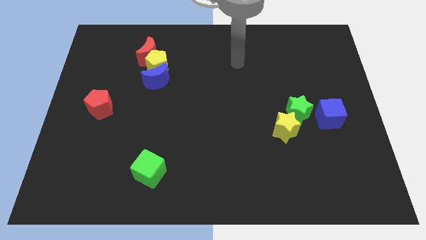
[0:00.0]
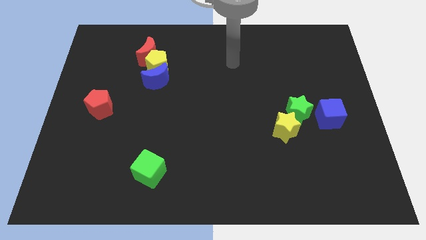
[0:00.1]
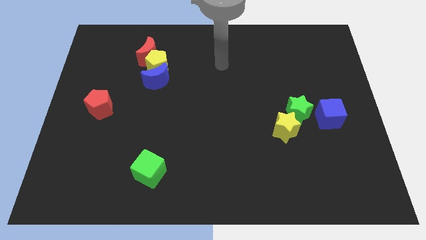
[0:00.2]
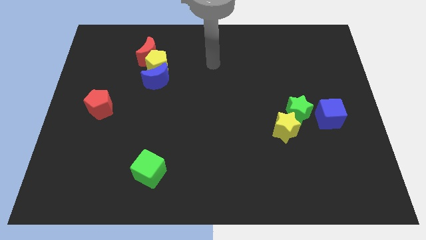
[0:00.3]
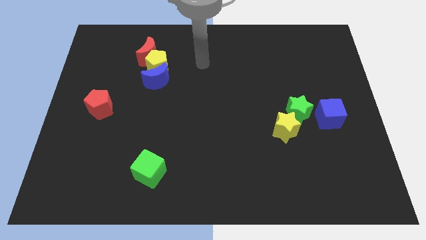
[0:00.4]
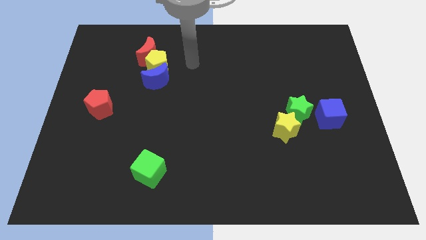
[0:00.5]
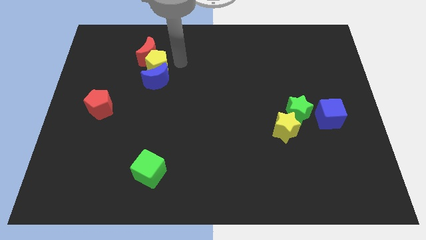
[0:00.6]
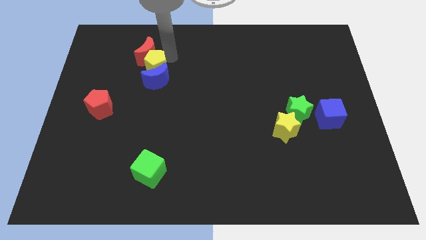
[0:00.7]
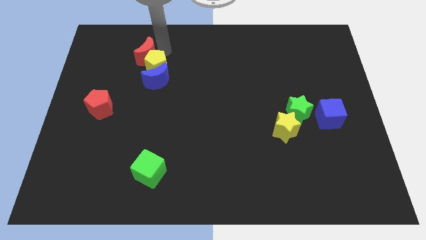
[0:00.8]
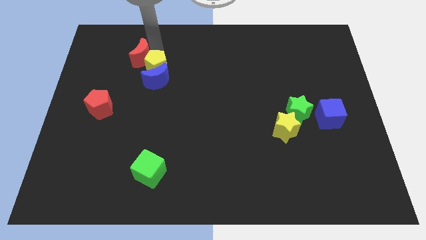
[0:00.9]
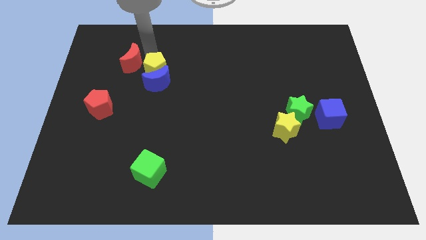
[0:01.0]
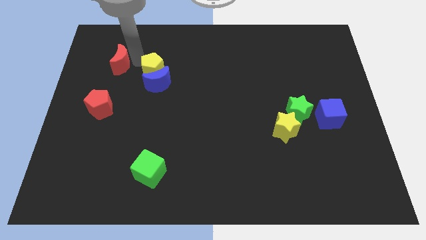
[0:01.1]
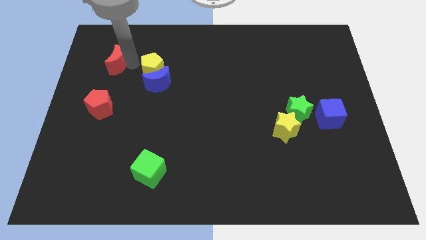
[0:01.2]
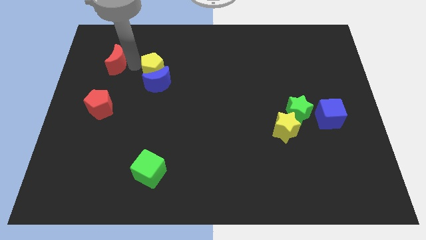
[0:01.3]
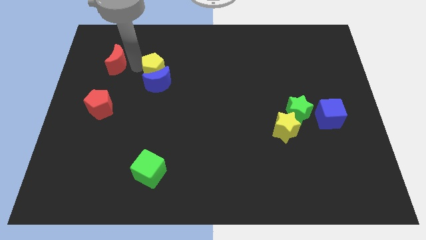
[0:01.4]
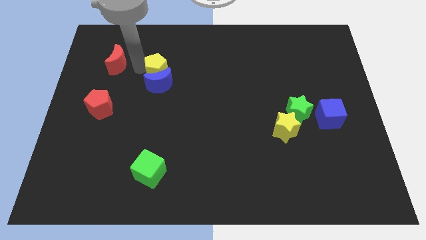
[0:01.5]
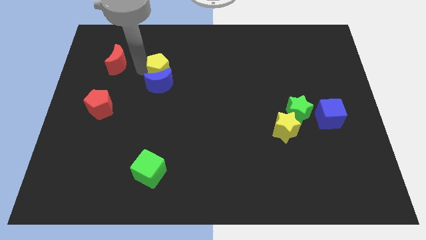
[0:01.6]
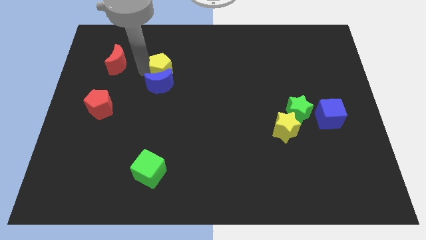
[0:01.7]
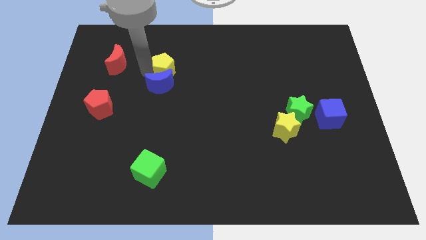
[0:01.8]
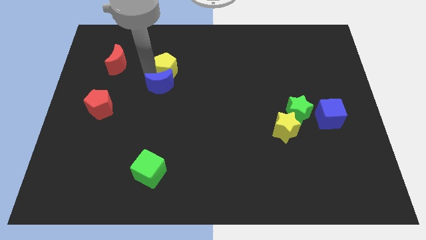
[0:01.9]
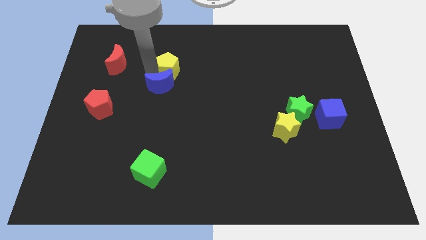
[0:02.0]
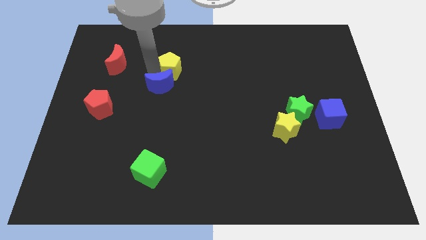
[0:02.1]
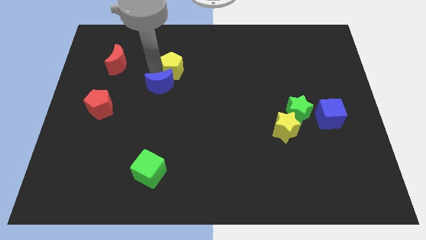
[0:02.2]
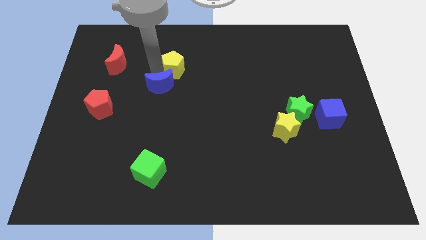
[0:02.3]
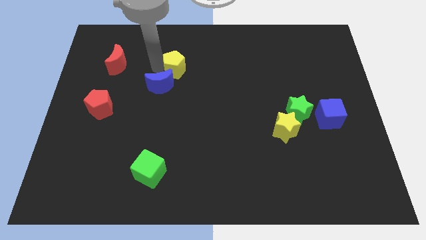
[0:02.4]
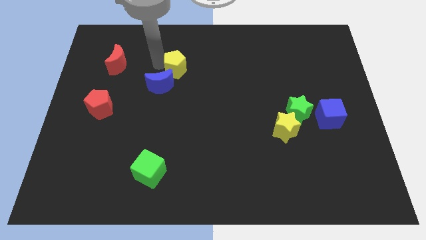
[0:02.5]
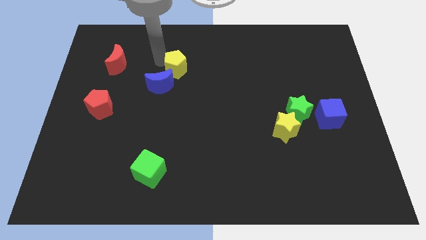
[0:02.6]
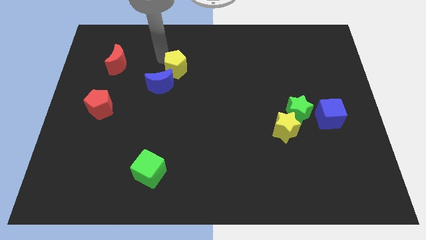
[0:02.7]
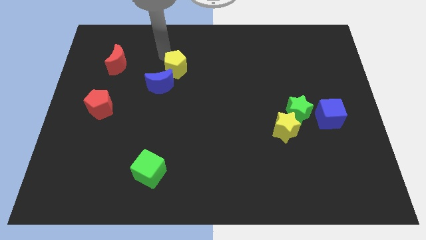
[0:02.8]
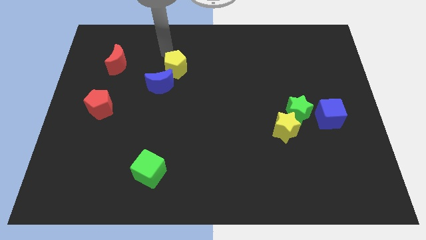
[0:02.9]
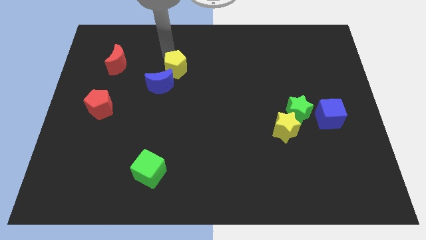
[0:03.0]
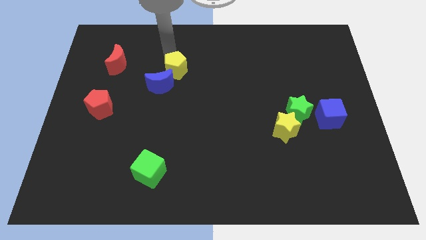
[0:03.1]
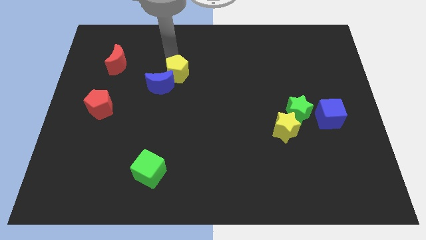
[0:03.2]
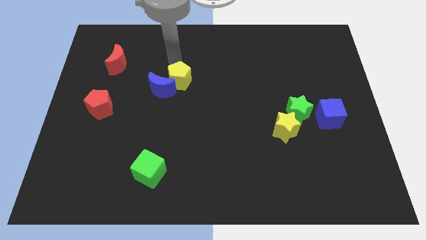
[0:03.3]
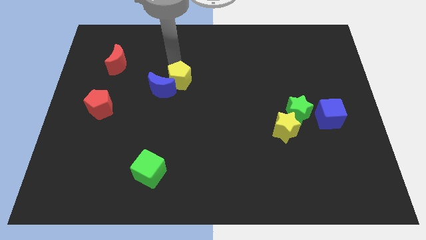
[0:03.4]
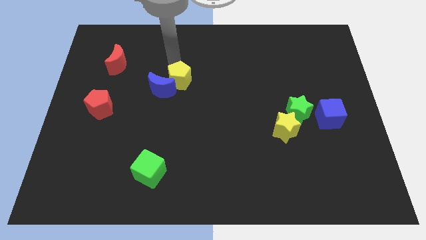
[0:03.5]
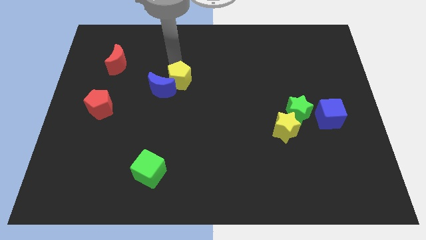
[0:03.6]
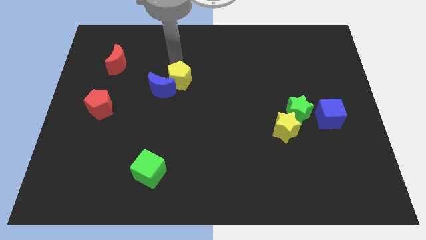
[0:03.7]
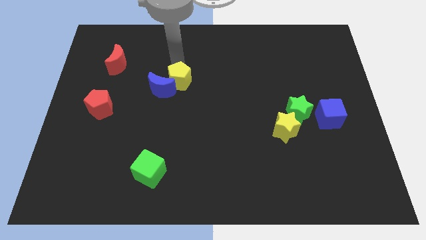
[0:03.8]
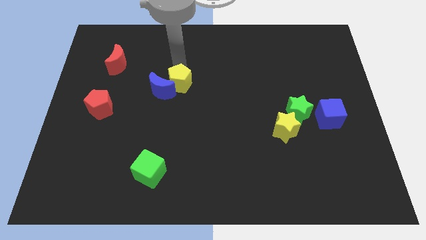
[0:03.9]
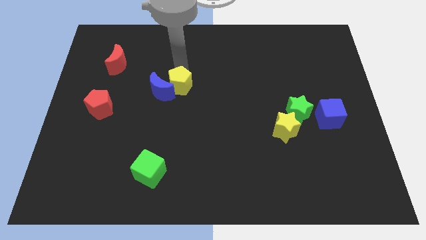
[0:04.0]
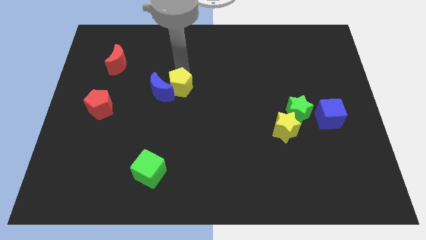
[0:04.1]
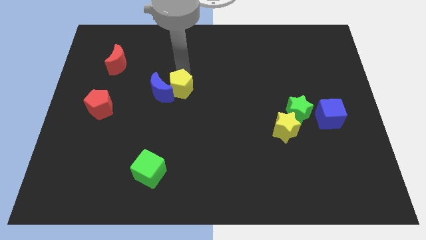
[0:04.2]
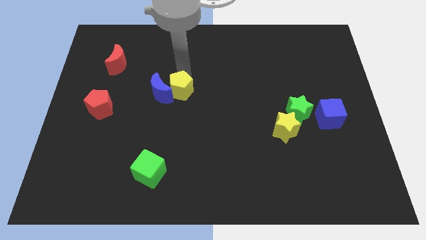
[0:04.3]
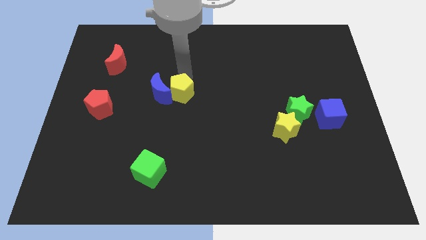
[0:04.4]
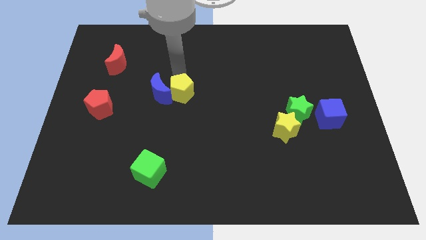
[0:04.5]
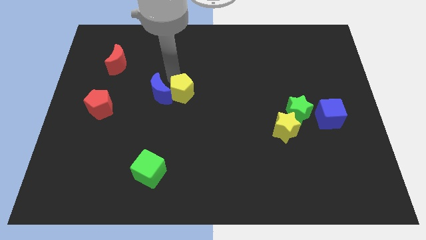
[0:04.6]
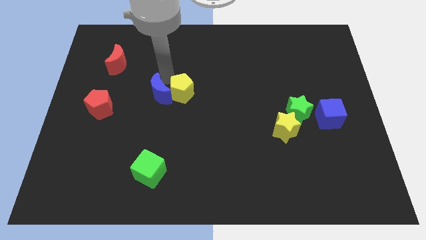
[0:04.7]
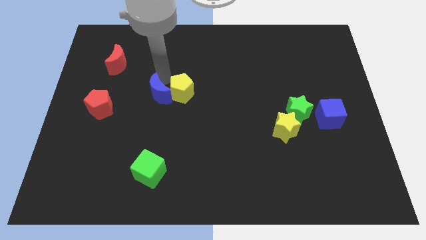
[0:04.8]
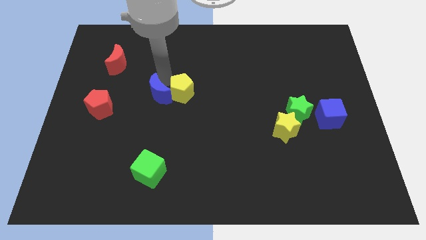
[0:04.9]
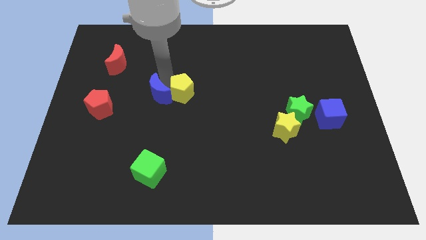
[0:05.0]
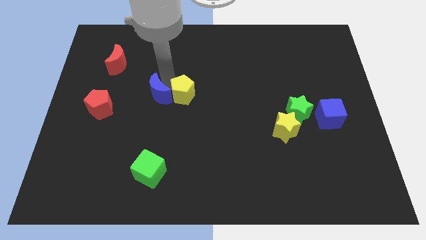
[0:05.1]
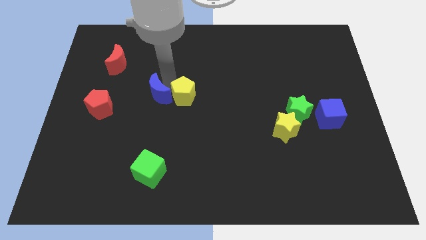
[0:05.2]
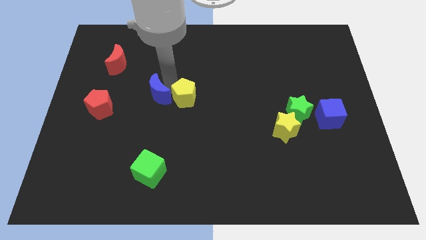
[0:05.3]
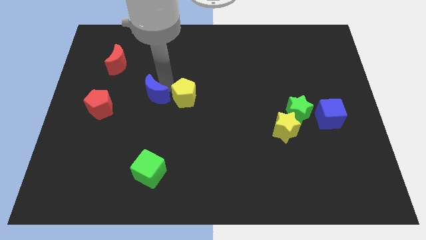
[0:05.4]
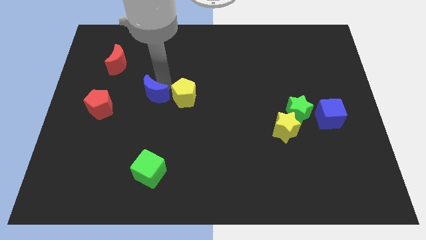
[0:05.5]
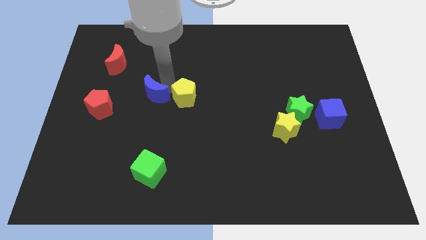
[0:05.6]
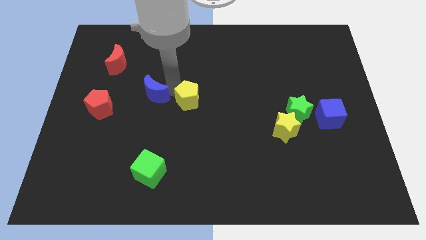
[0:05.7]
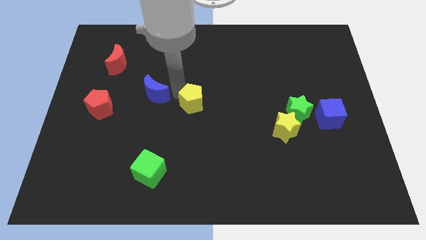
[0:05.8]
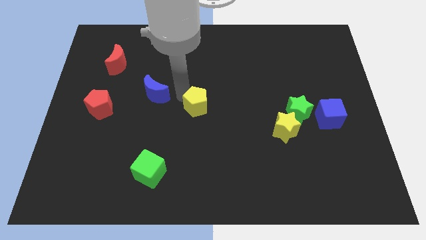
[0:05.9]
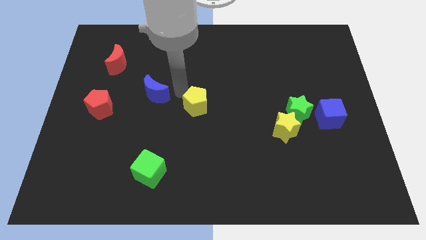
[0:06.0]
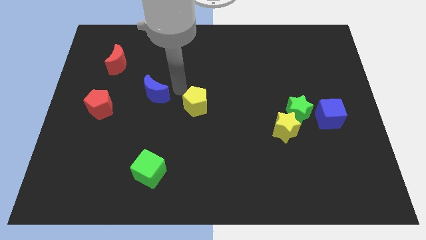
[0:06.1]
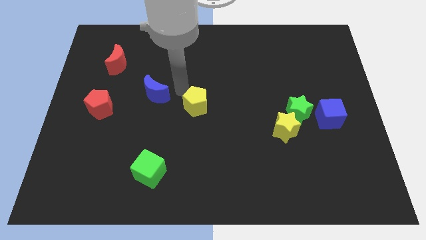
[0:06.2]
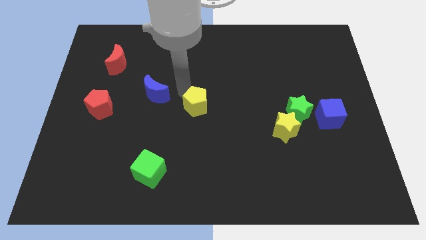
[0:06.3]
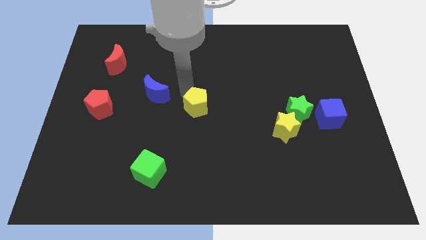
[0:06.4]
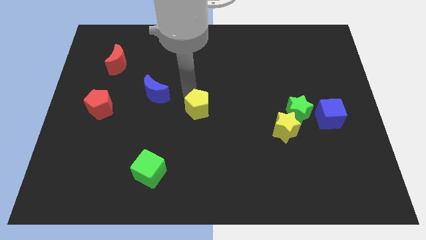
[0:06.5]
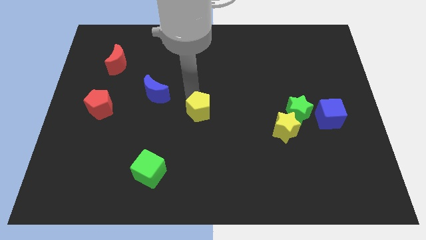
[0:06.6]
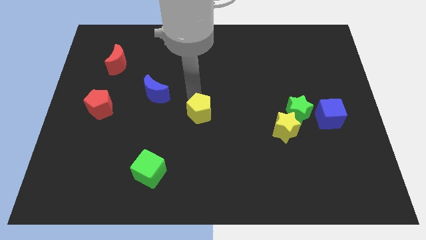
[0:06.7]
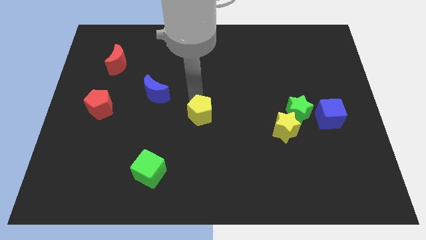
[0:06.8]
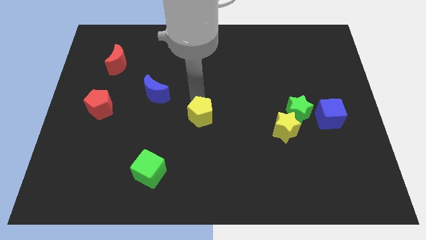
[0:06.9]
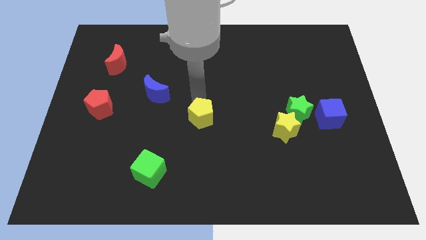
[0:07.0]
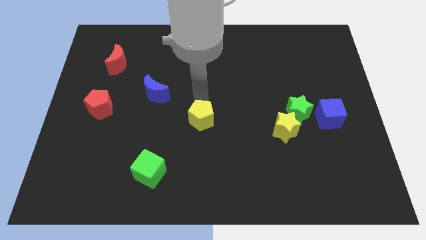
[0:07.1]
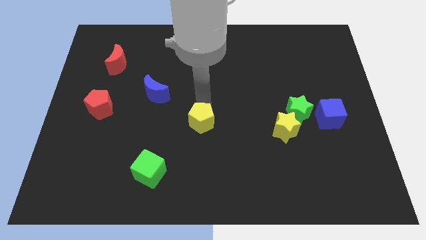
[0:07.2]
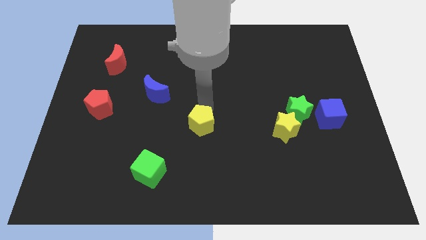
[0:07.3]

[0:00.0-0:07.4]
push the yellow pentagon downwards and right

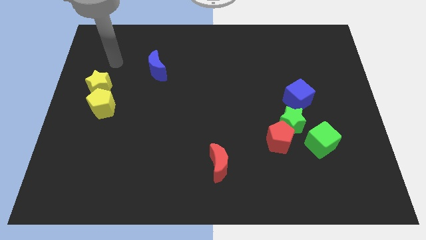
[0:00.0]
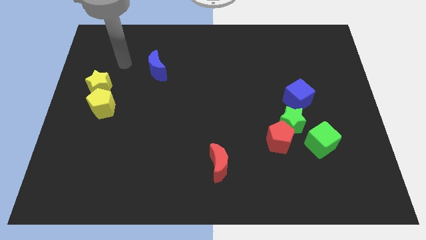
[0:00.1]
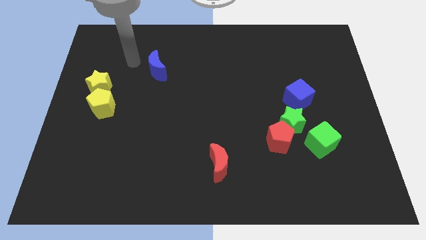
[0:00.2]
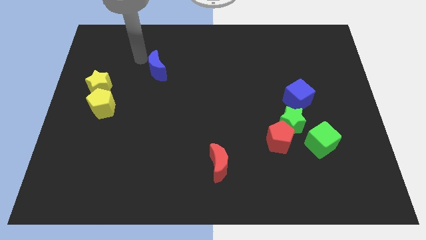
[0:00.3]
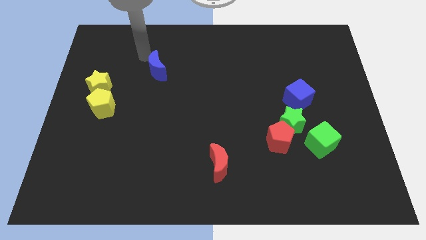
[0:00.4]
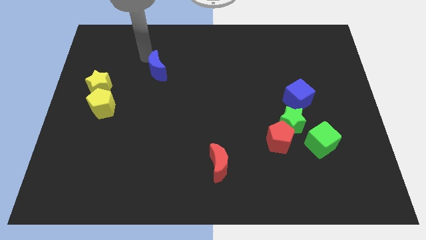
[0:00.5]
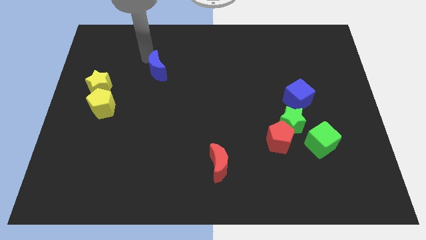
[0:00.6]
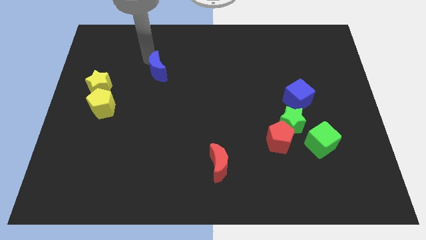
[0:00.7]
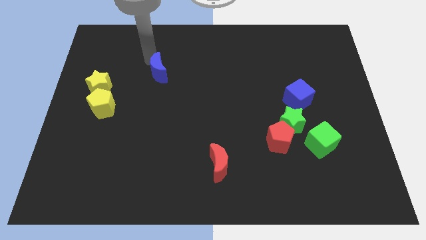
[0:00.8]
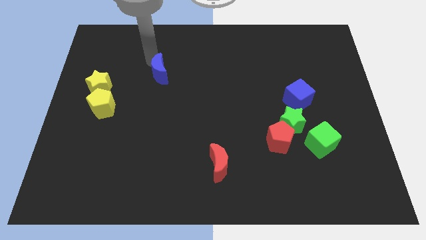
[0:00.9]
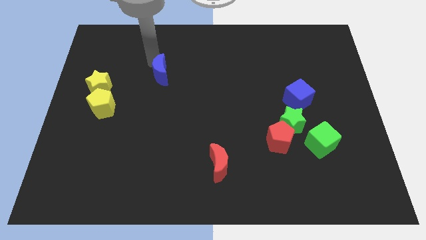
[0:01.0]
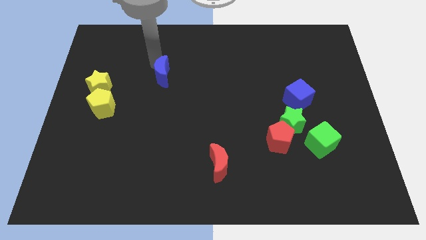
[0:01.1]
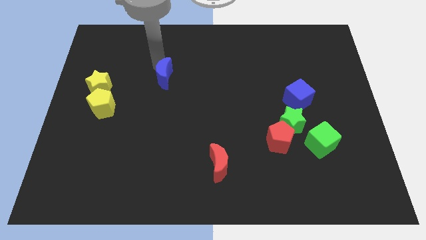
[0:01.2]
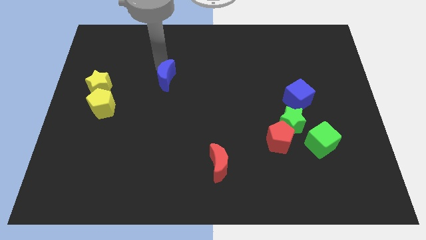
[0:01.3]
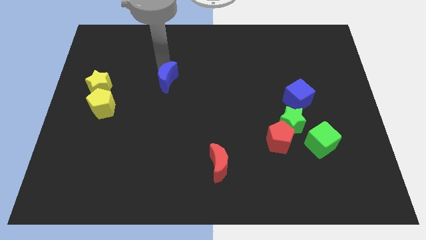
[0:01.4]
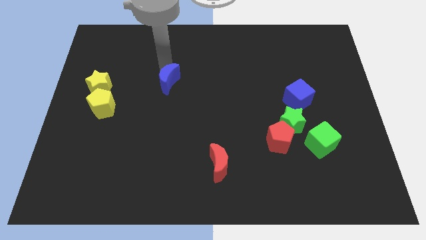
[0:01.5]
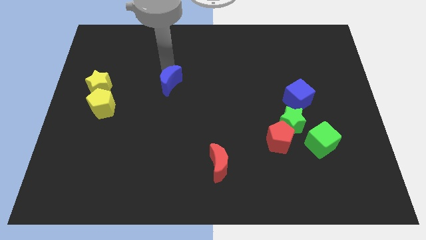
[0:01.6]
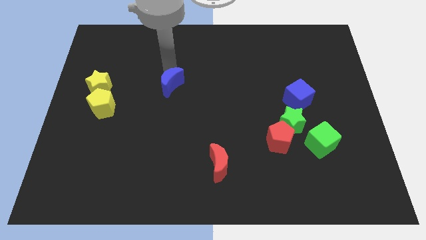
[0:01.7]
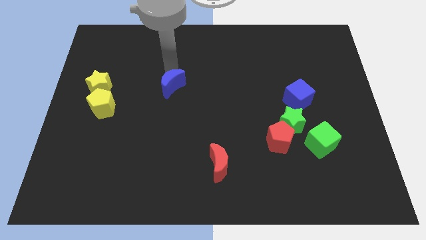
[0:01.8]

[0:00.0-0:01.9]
push the blue moon down and right diagonally slightly
